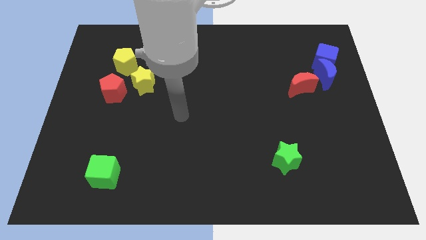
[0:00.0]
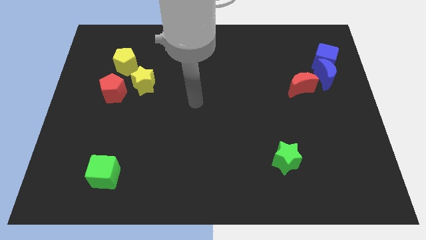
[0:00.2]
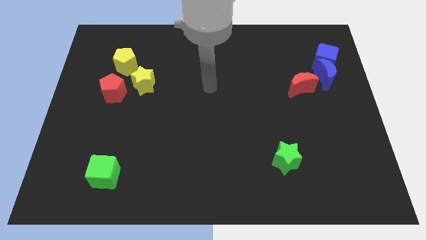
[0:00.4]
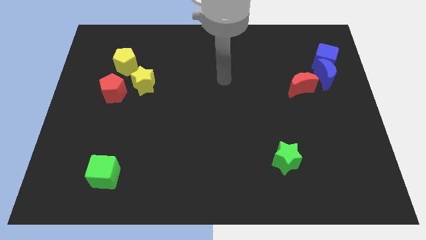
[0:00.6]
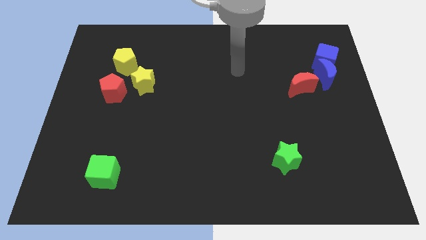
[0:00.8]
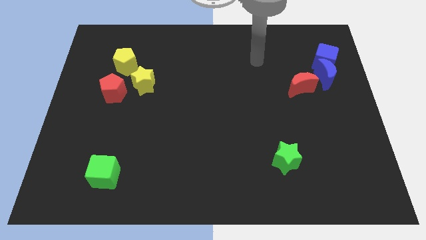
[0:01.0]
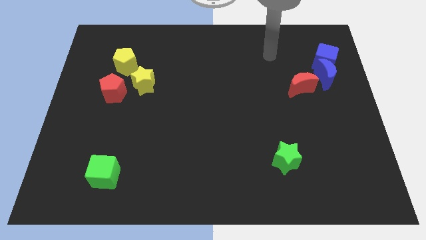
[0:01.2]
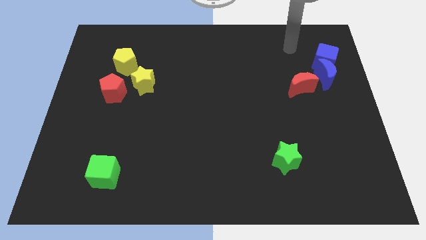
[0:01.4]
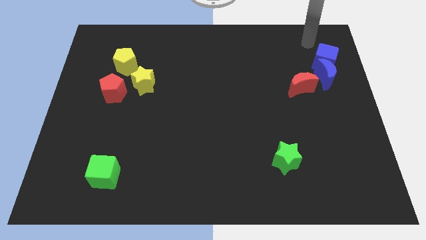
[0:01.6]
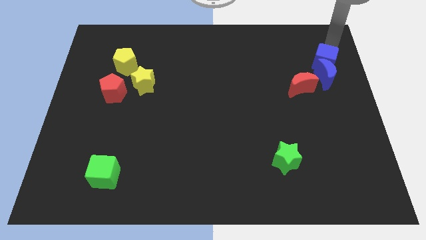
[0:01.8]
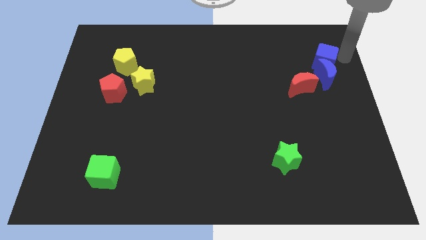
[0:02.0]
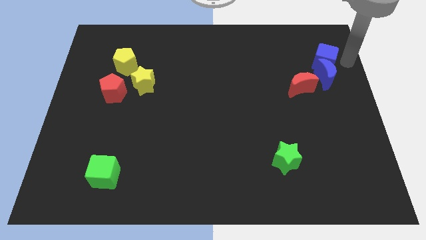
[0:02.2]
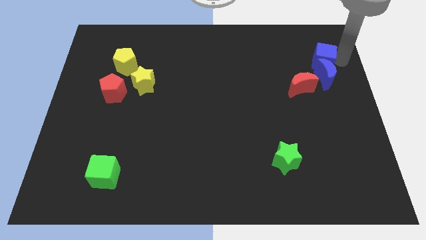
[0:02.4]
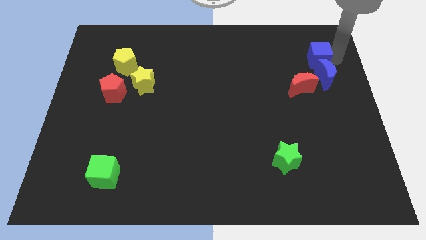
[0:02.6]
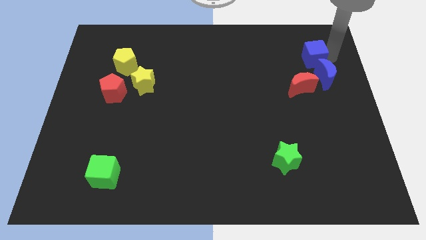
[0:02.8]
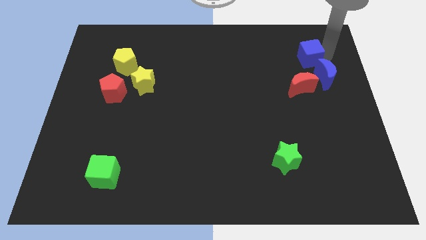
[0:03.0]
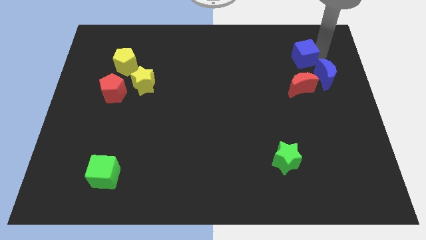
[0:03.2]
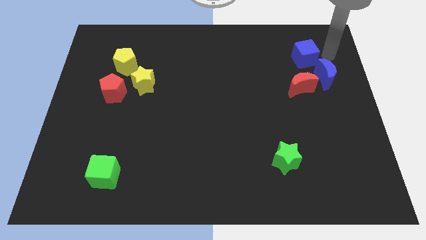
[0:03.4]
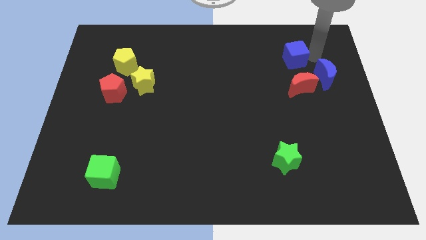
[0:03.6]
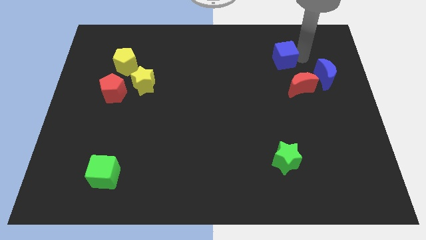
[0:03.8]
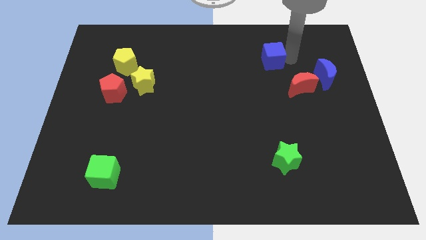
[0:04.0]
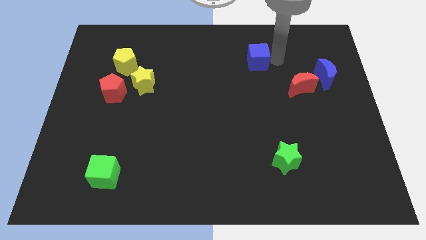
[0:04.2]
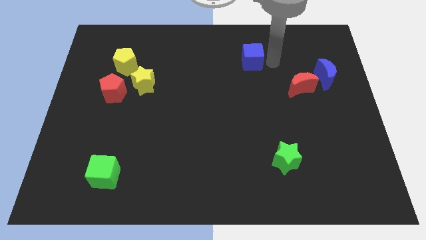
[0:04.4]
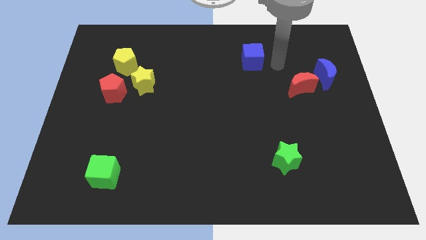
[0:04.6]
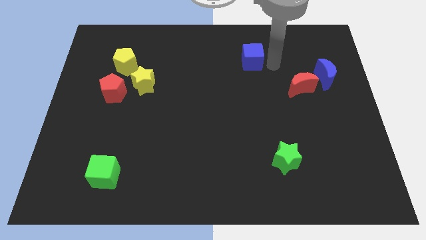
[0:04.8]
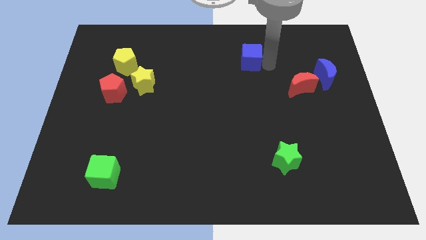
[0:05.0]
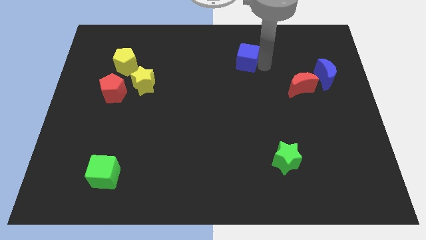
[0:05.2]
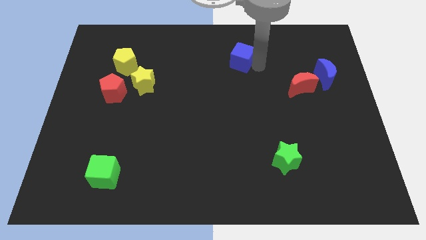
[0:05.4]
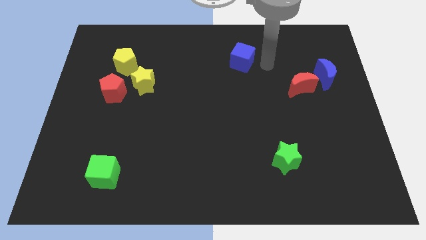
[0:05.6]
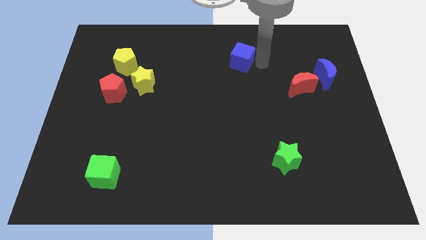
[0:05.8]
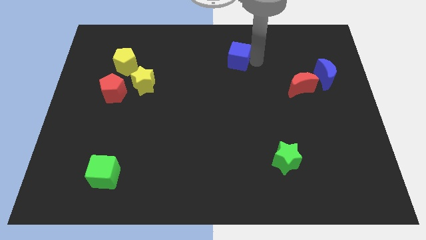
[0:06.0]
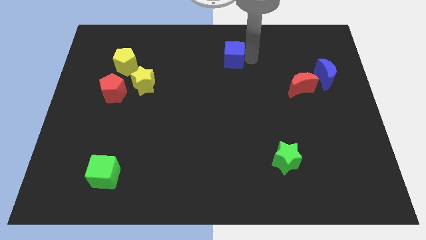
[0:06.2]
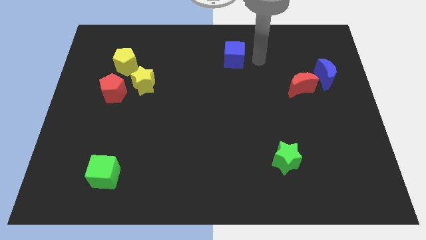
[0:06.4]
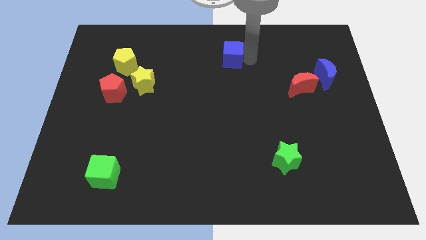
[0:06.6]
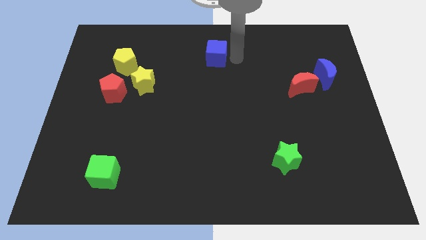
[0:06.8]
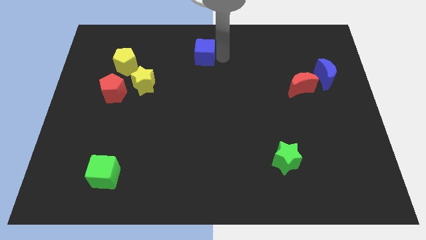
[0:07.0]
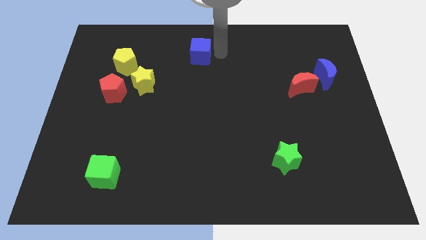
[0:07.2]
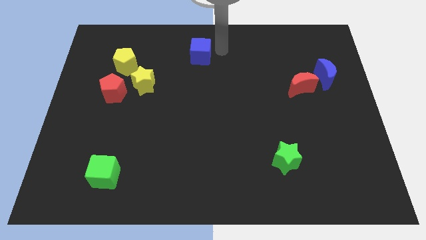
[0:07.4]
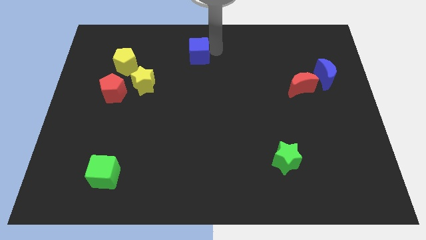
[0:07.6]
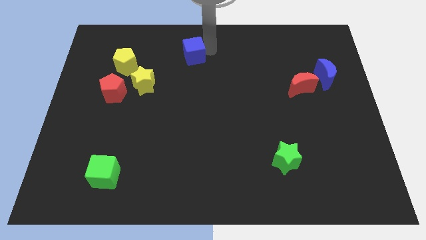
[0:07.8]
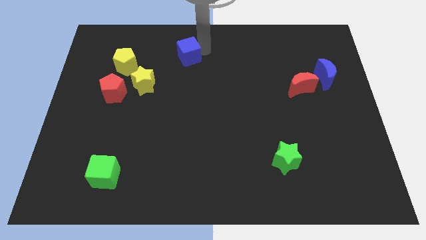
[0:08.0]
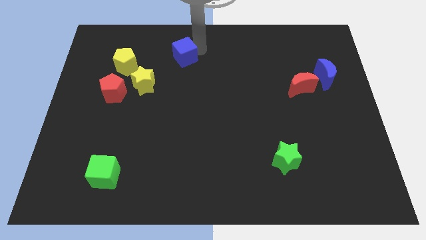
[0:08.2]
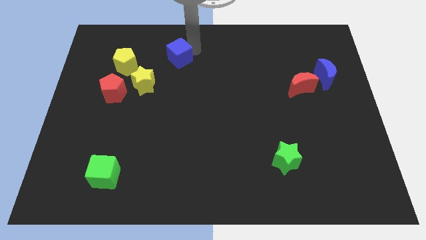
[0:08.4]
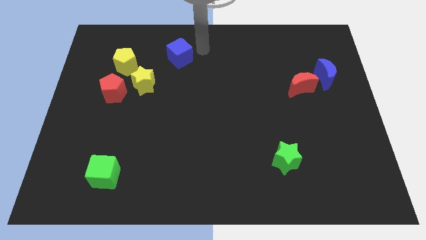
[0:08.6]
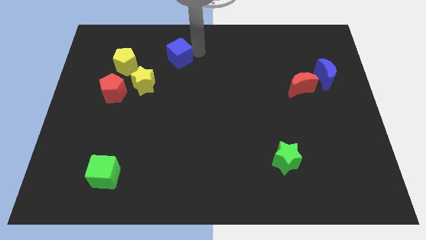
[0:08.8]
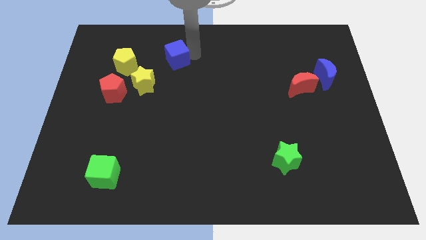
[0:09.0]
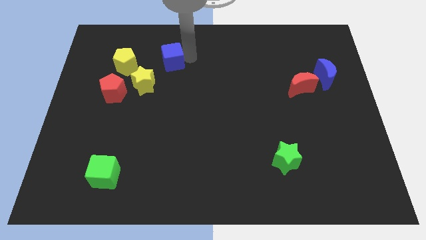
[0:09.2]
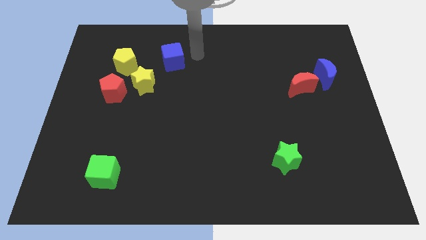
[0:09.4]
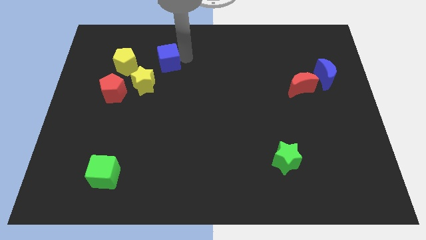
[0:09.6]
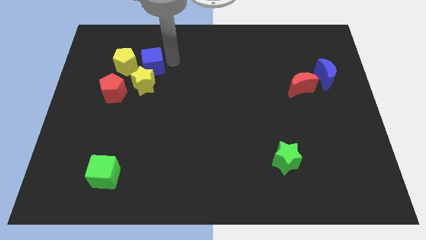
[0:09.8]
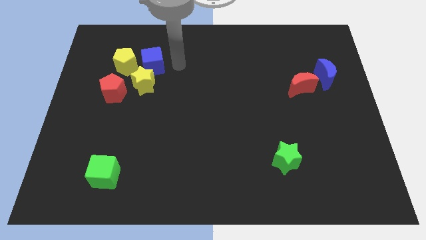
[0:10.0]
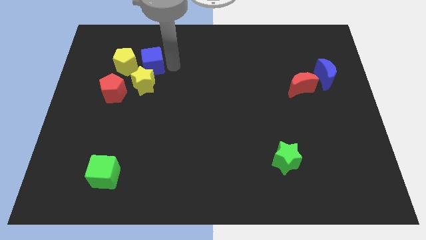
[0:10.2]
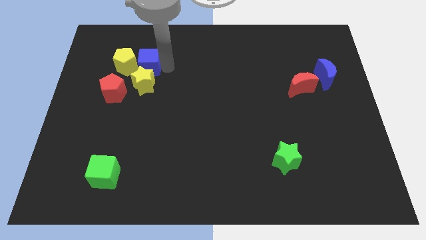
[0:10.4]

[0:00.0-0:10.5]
push the blue cube to the yellow pentagon

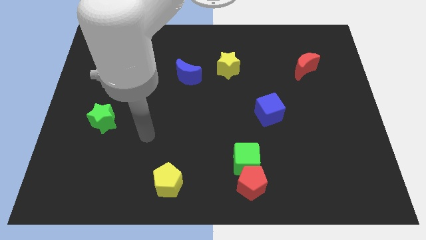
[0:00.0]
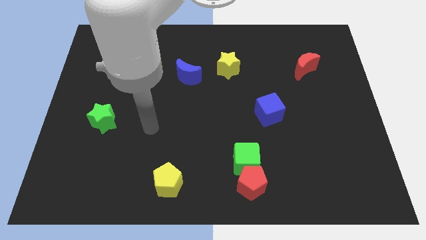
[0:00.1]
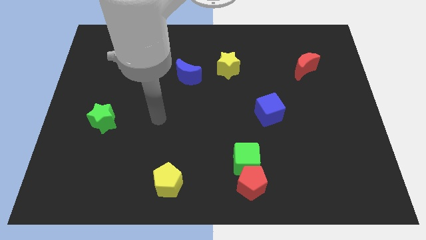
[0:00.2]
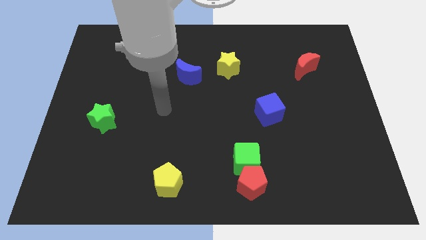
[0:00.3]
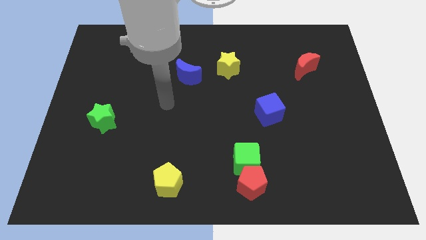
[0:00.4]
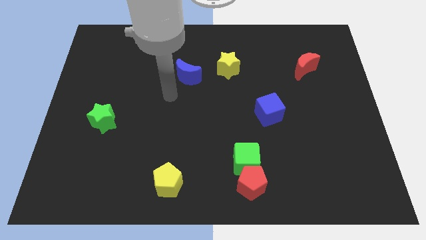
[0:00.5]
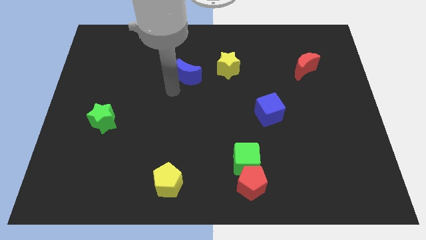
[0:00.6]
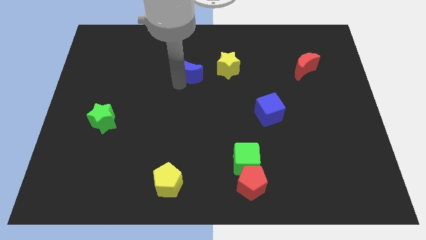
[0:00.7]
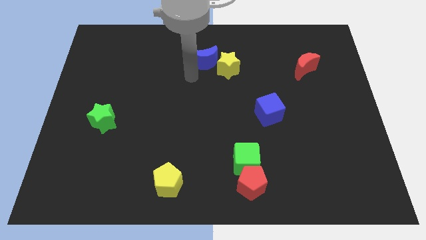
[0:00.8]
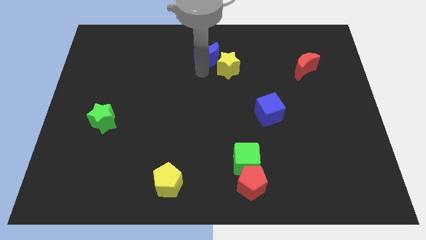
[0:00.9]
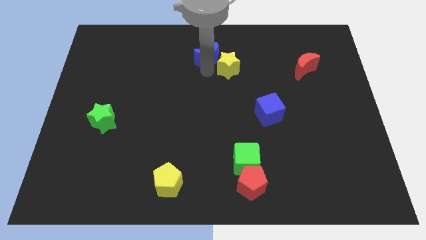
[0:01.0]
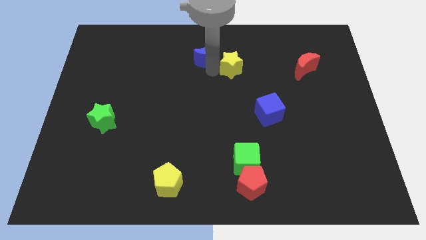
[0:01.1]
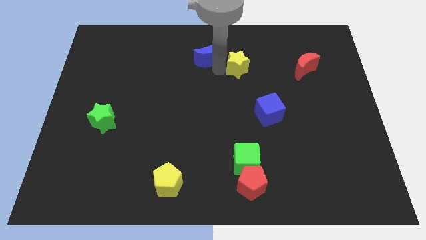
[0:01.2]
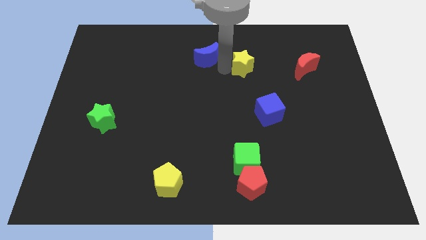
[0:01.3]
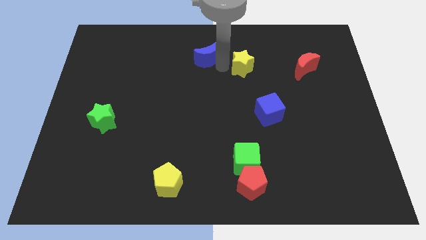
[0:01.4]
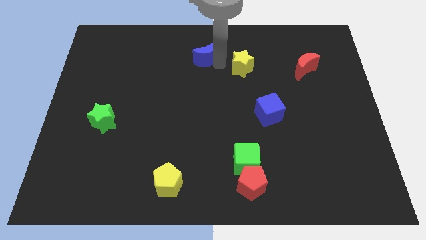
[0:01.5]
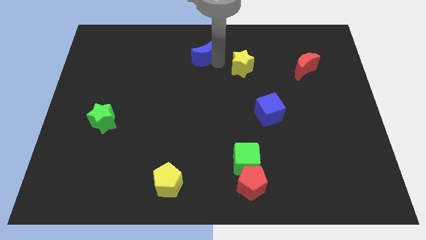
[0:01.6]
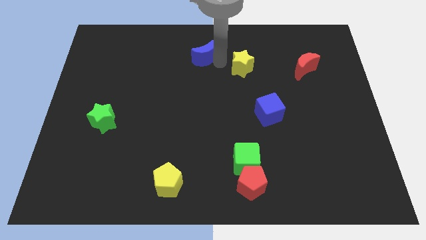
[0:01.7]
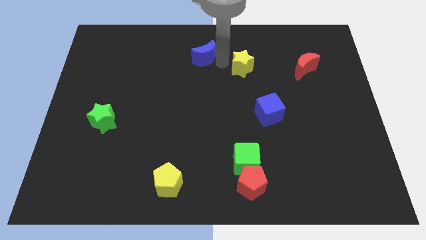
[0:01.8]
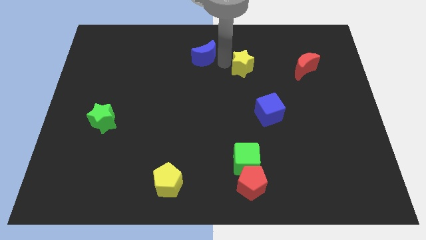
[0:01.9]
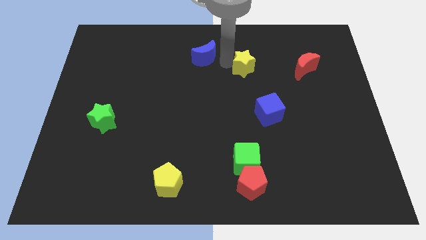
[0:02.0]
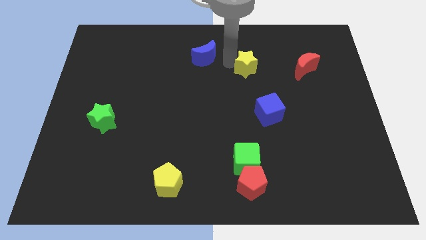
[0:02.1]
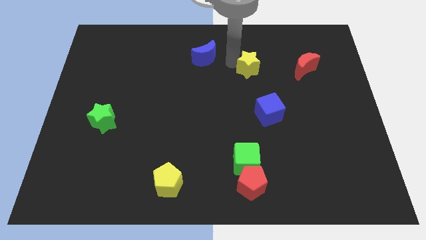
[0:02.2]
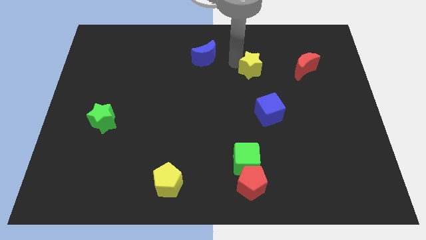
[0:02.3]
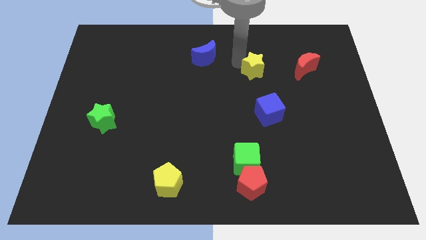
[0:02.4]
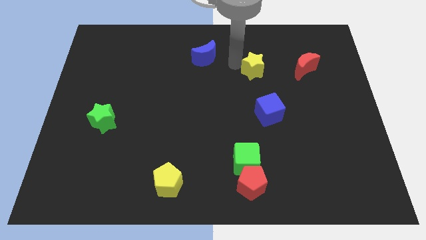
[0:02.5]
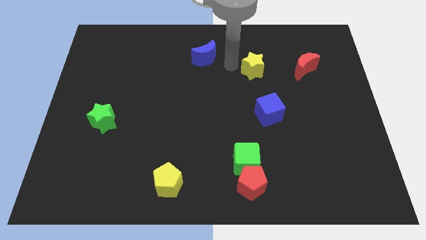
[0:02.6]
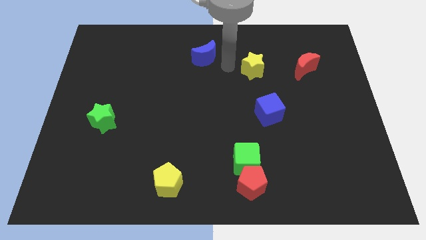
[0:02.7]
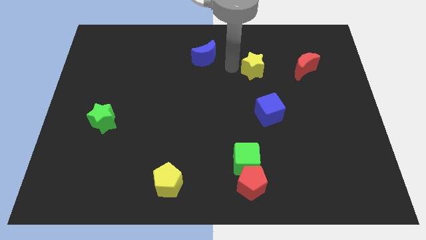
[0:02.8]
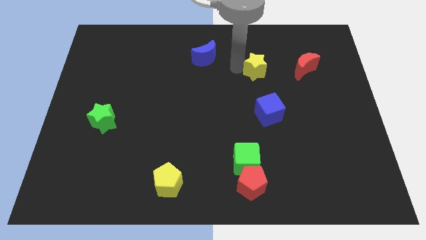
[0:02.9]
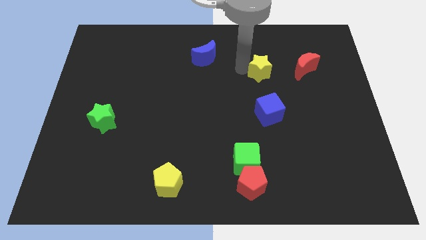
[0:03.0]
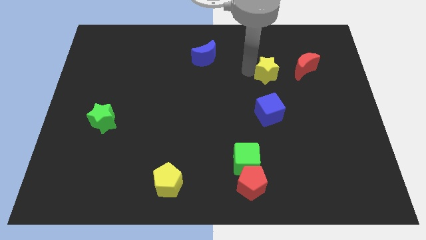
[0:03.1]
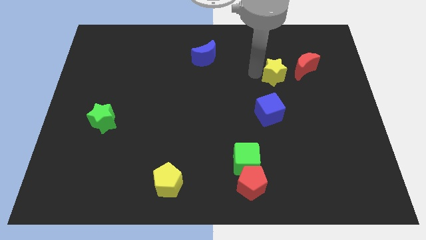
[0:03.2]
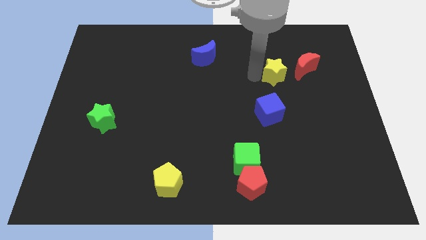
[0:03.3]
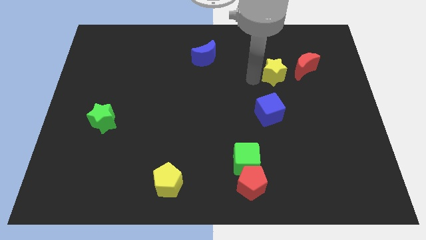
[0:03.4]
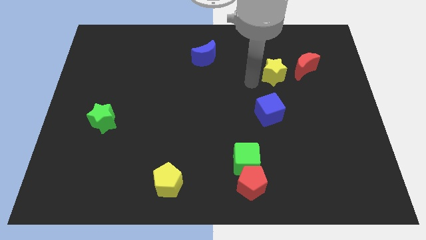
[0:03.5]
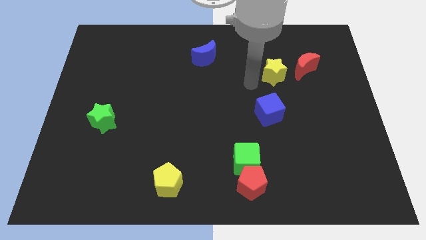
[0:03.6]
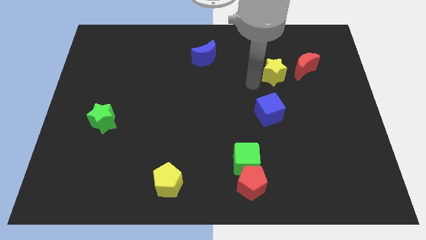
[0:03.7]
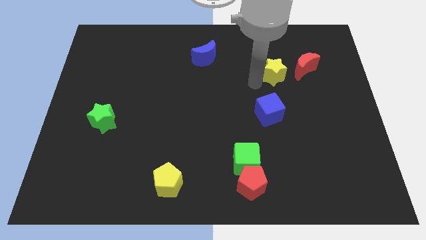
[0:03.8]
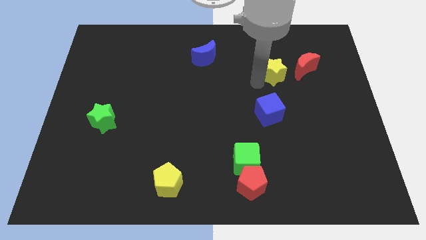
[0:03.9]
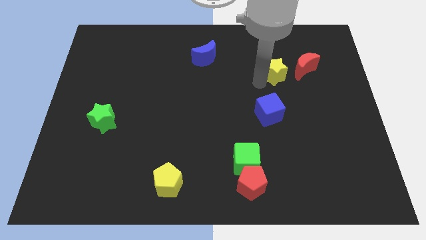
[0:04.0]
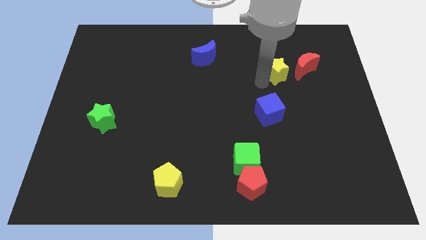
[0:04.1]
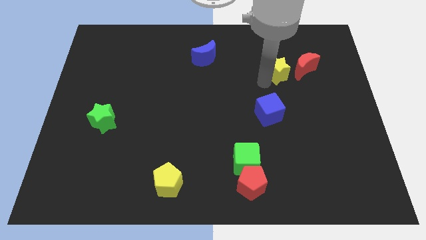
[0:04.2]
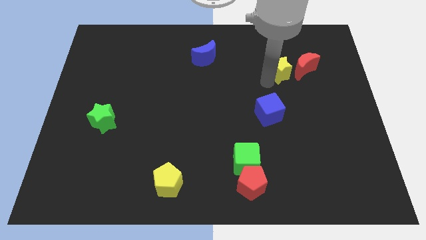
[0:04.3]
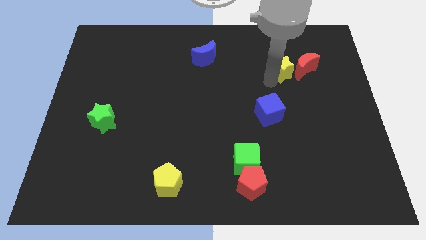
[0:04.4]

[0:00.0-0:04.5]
push the yellow star close to the red moon
